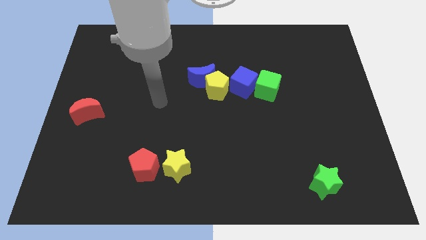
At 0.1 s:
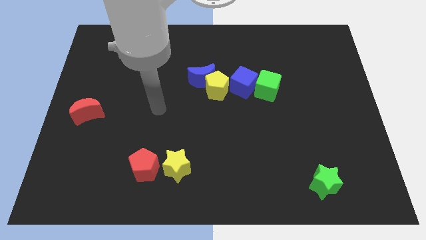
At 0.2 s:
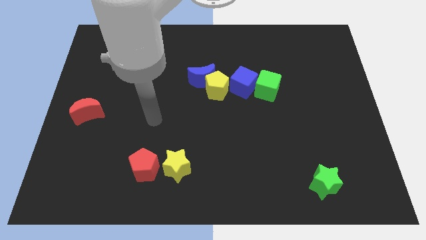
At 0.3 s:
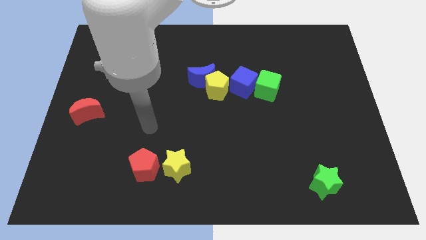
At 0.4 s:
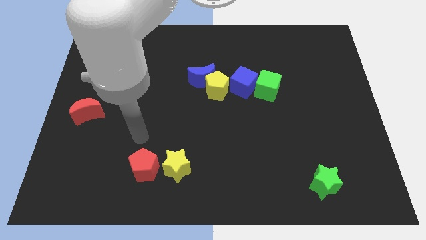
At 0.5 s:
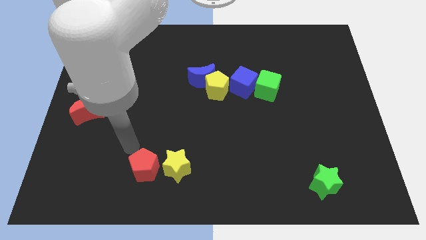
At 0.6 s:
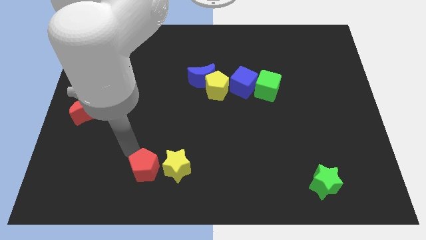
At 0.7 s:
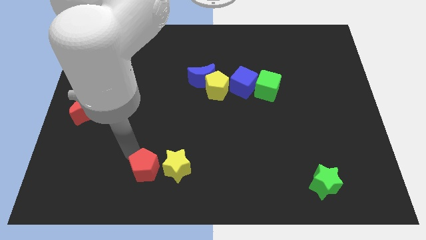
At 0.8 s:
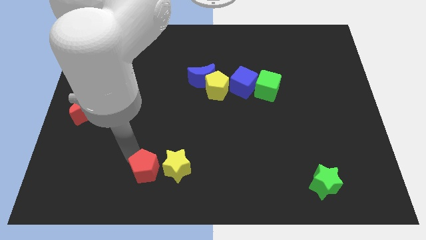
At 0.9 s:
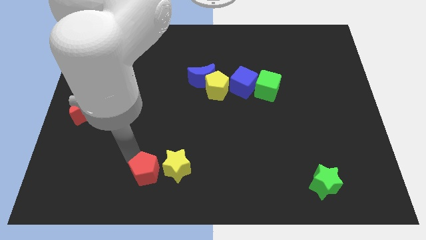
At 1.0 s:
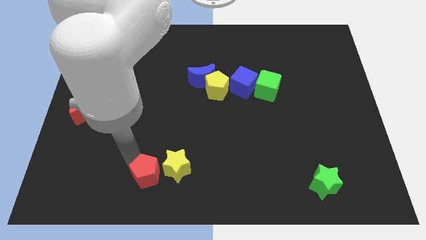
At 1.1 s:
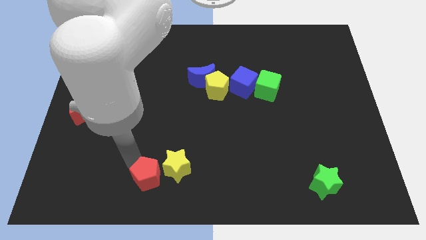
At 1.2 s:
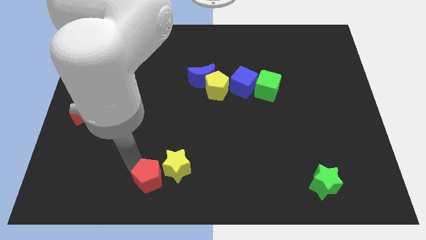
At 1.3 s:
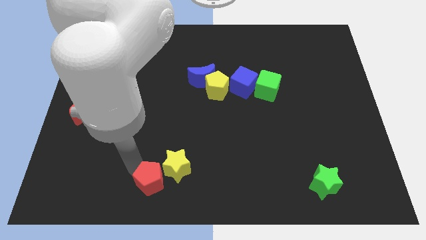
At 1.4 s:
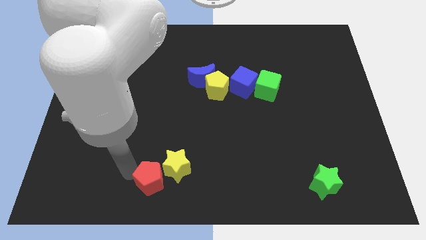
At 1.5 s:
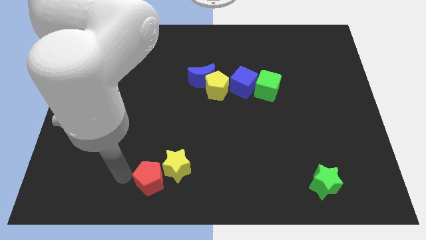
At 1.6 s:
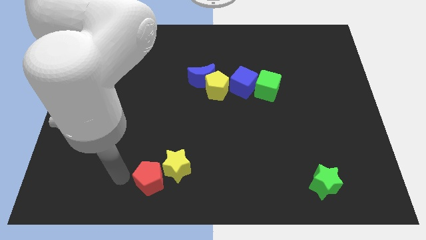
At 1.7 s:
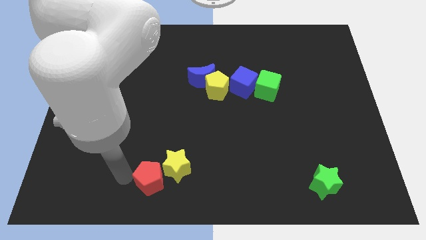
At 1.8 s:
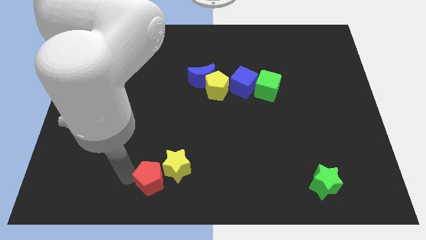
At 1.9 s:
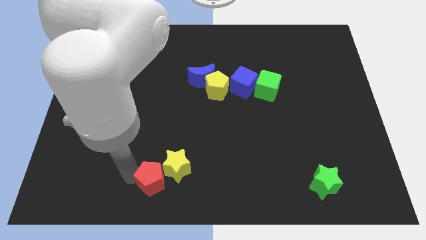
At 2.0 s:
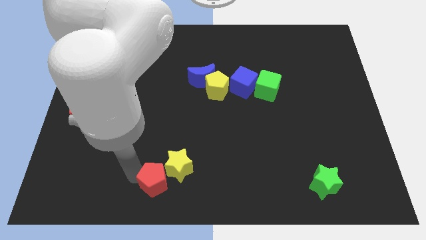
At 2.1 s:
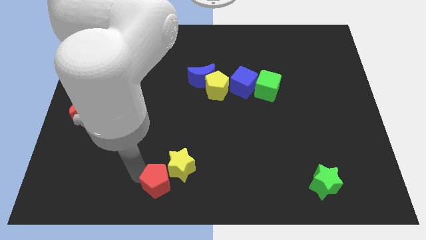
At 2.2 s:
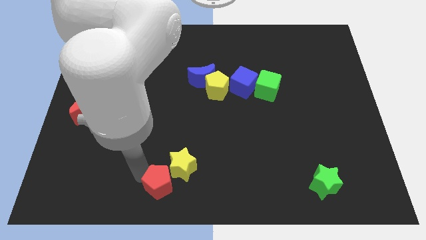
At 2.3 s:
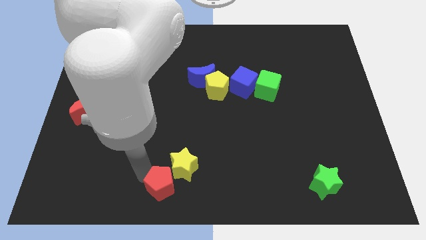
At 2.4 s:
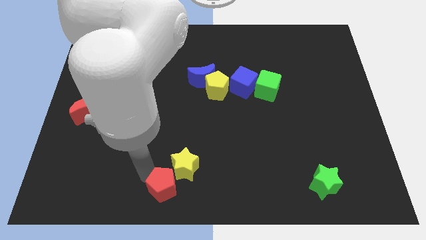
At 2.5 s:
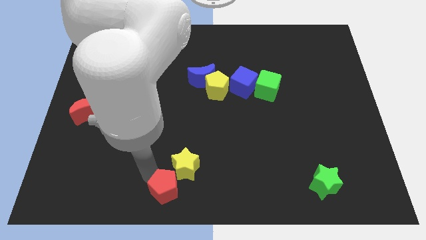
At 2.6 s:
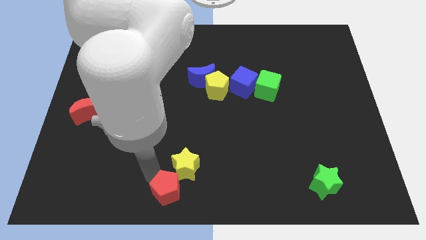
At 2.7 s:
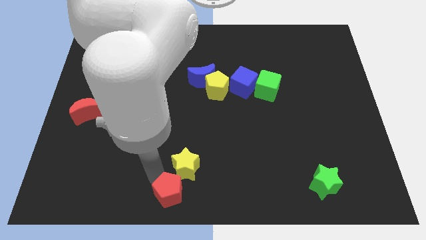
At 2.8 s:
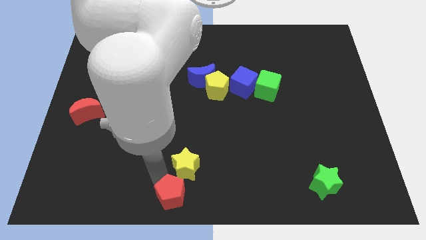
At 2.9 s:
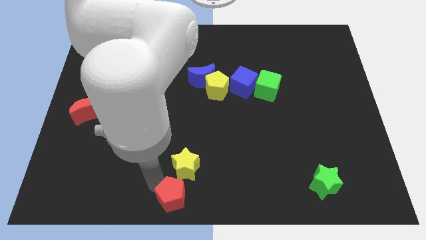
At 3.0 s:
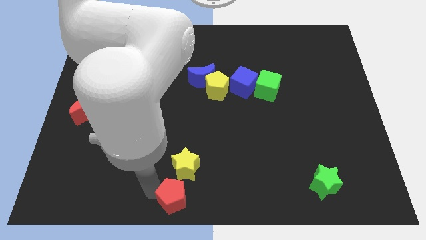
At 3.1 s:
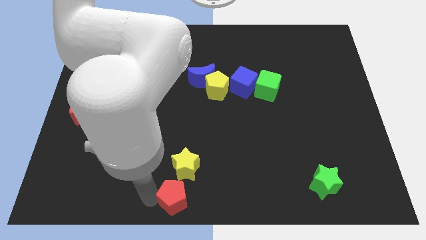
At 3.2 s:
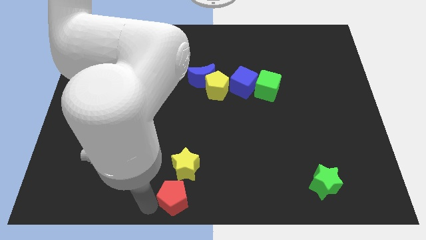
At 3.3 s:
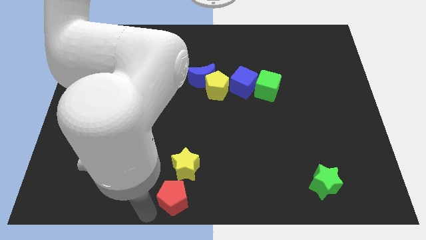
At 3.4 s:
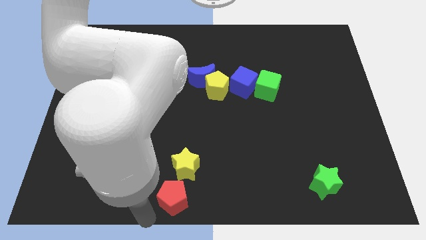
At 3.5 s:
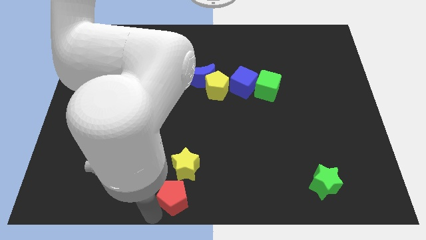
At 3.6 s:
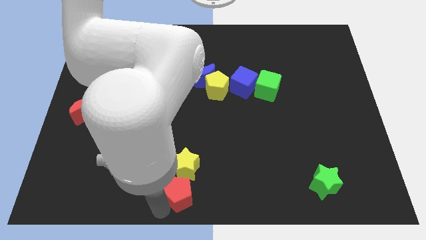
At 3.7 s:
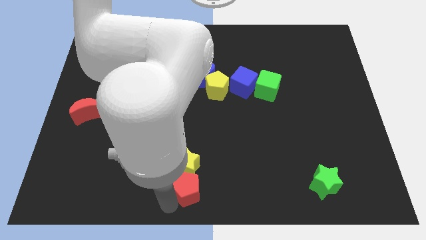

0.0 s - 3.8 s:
move the red pentagon a little right

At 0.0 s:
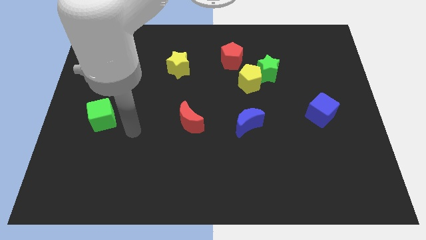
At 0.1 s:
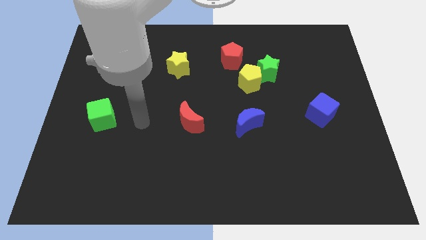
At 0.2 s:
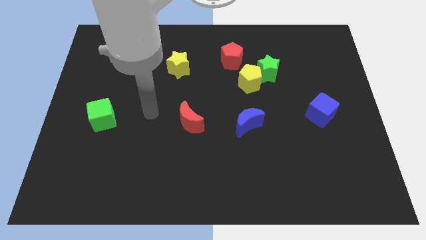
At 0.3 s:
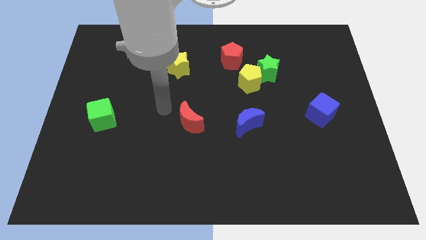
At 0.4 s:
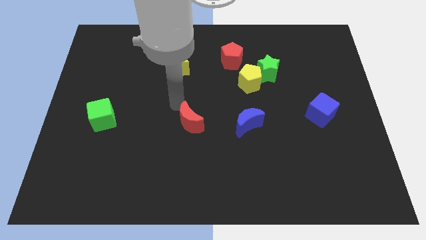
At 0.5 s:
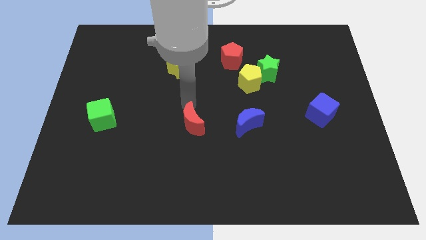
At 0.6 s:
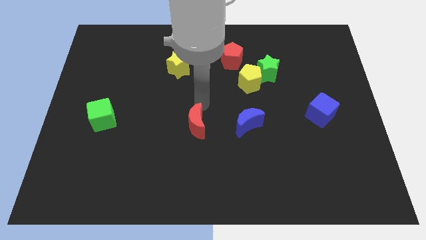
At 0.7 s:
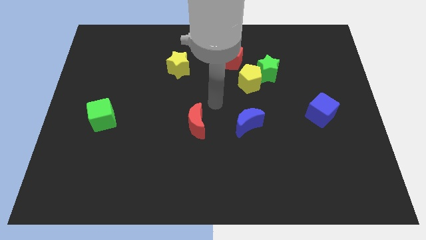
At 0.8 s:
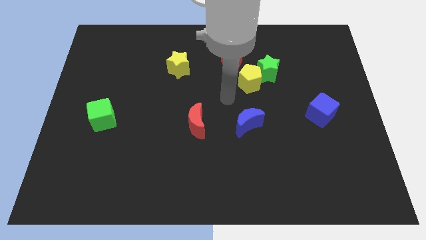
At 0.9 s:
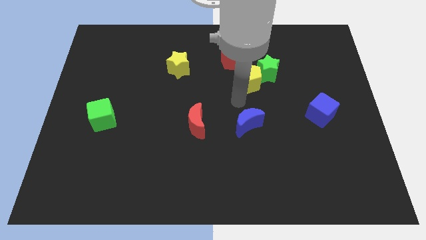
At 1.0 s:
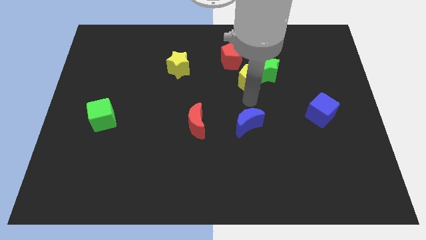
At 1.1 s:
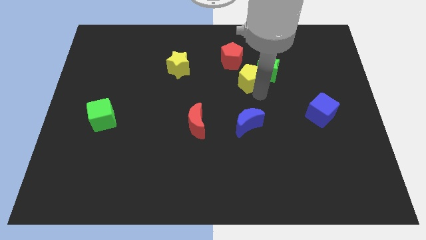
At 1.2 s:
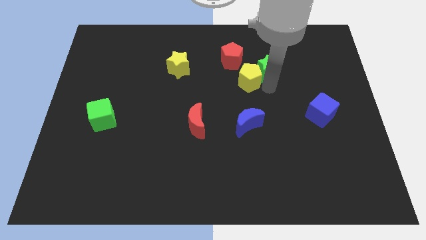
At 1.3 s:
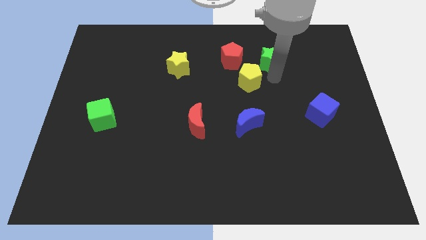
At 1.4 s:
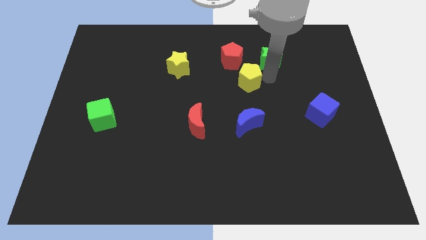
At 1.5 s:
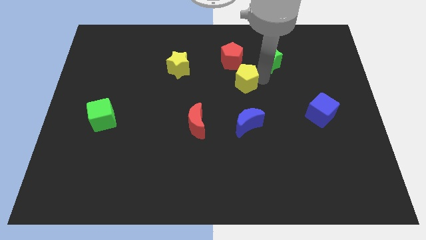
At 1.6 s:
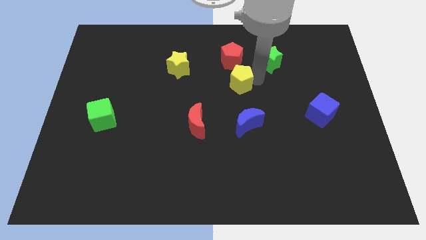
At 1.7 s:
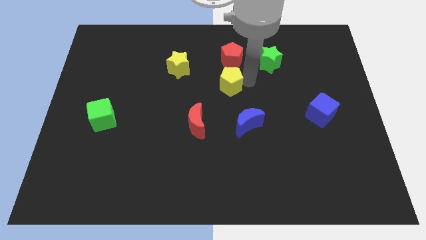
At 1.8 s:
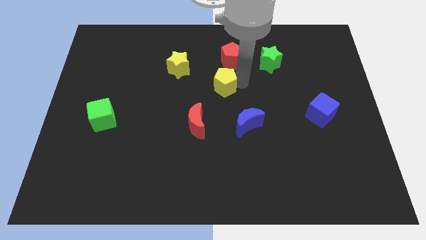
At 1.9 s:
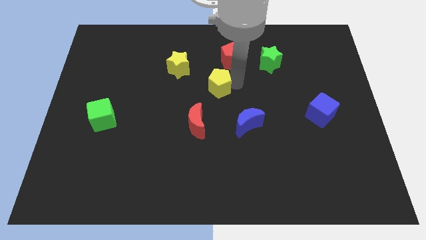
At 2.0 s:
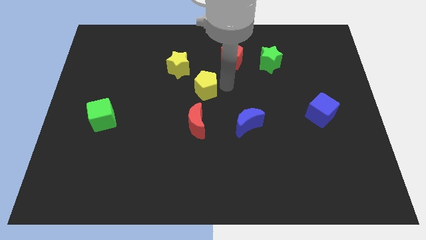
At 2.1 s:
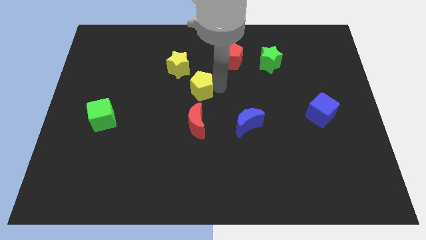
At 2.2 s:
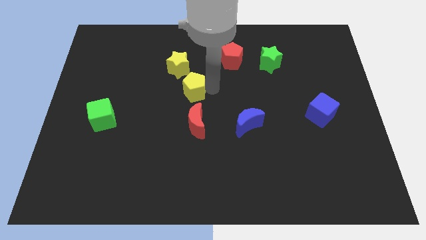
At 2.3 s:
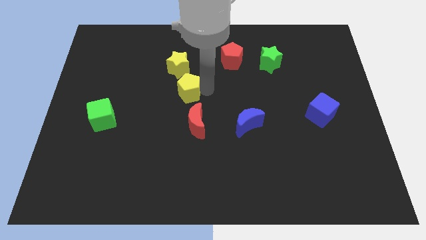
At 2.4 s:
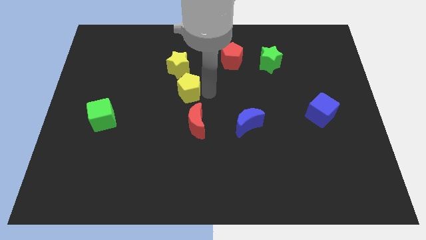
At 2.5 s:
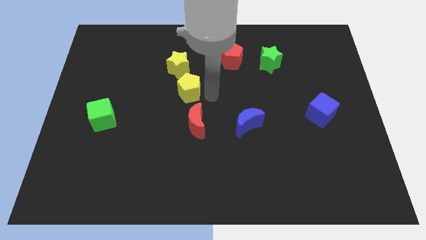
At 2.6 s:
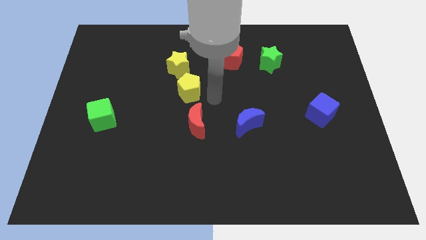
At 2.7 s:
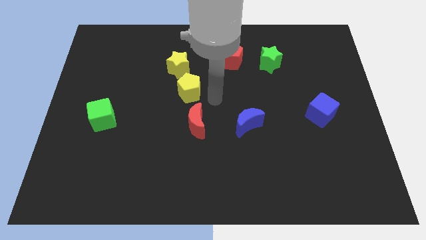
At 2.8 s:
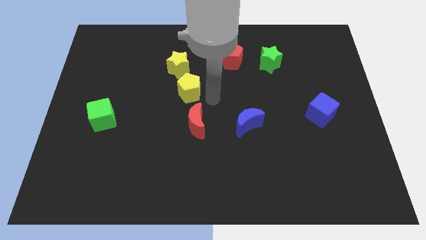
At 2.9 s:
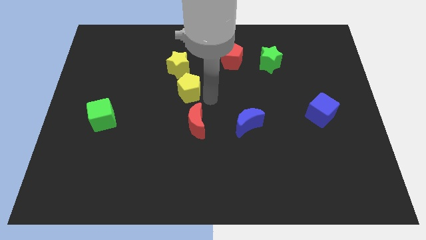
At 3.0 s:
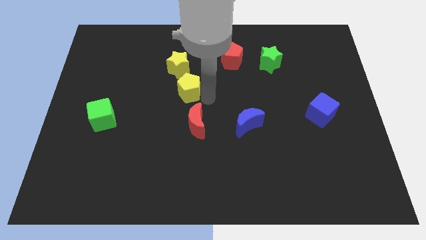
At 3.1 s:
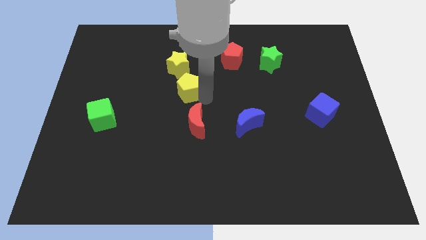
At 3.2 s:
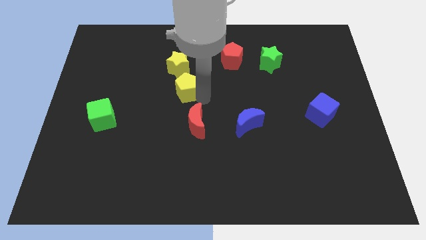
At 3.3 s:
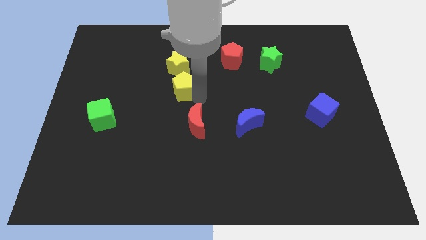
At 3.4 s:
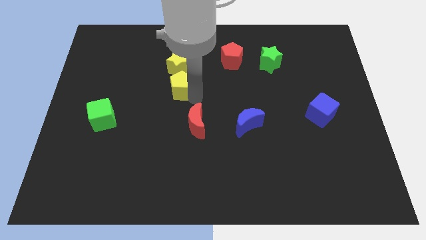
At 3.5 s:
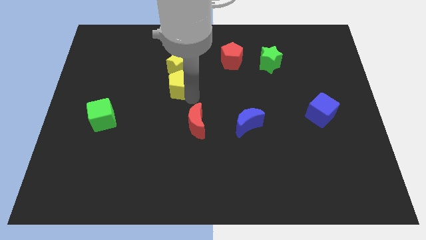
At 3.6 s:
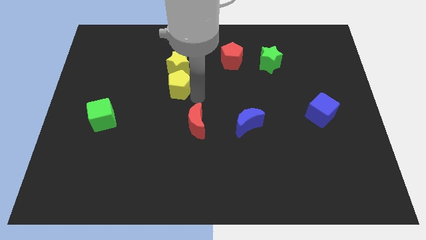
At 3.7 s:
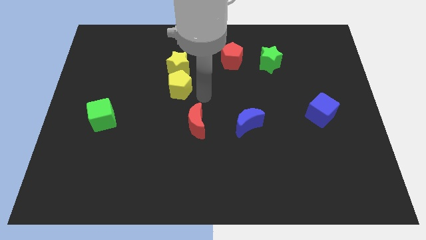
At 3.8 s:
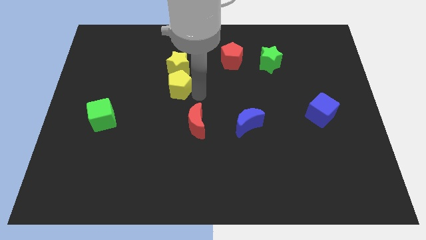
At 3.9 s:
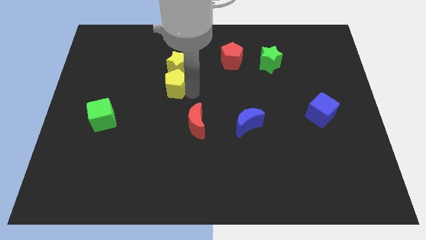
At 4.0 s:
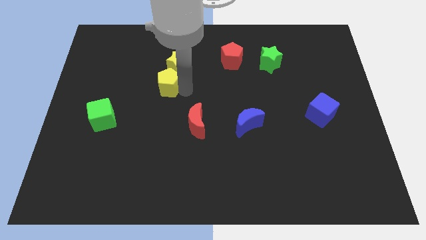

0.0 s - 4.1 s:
push the yellow pentagon left

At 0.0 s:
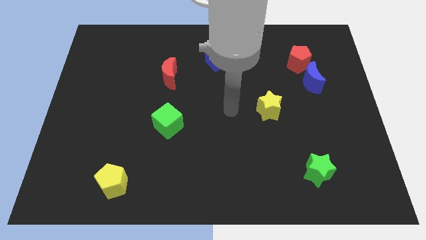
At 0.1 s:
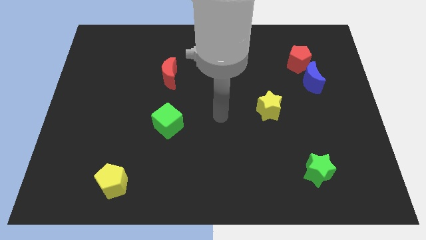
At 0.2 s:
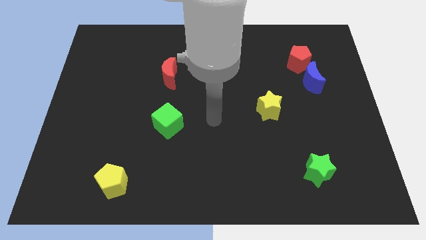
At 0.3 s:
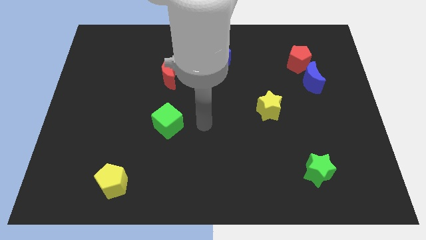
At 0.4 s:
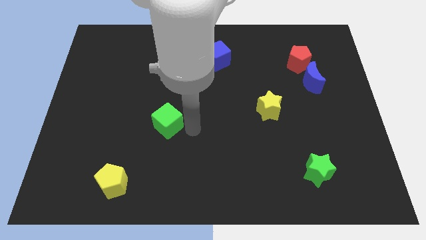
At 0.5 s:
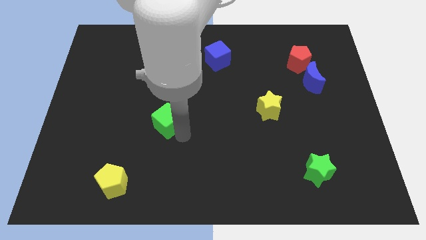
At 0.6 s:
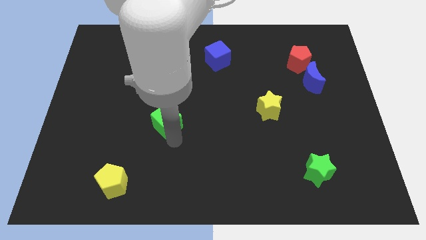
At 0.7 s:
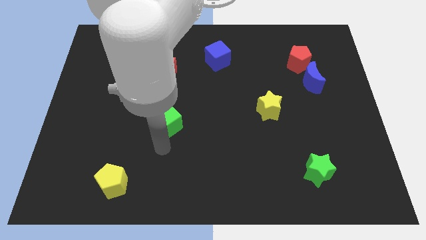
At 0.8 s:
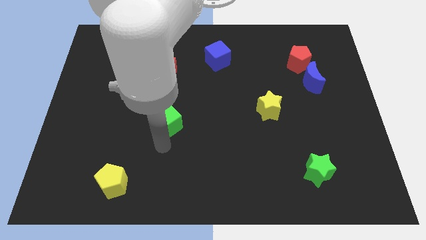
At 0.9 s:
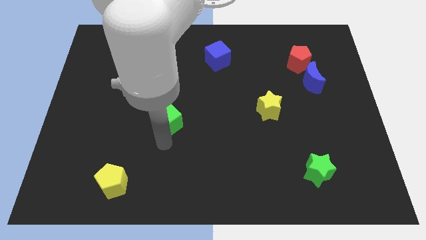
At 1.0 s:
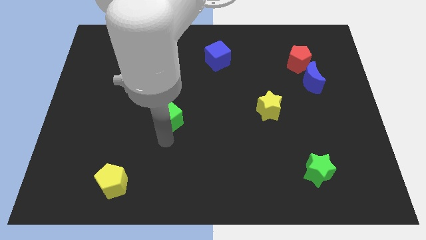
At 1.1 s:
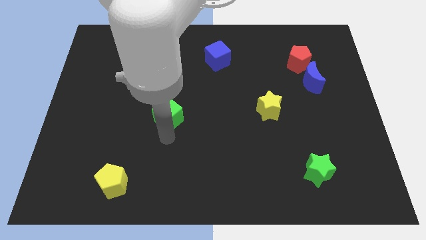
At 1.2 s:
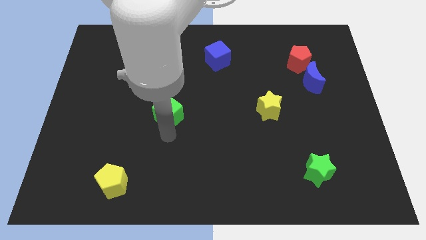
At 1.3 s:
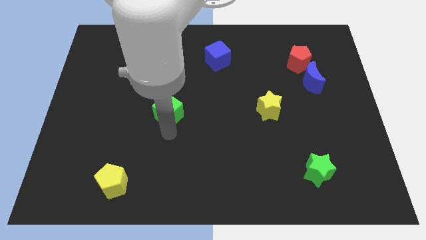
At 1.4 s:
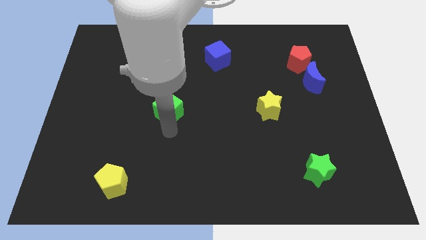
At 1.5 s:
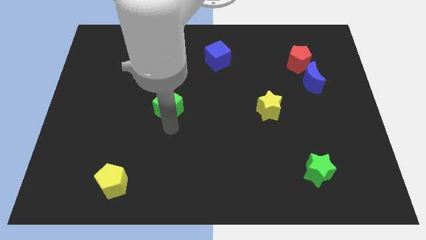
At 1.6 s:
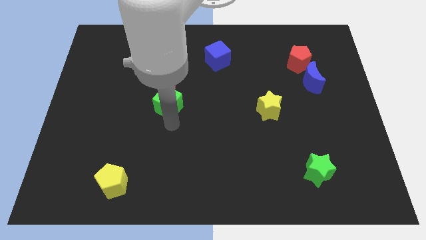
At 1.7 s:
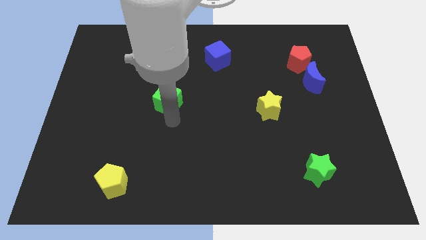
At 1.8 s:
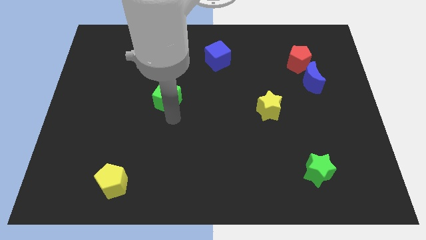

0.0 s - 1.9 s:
push the green cube upwards a bit
